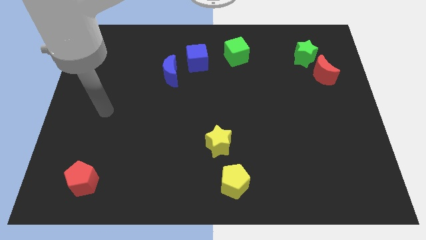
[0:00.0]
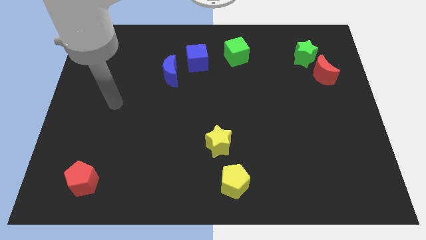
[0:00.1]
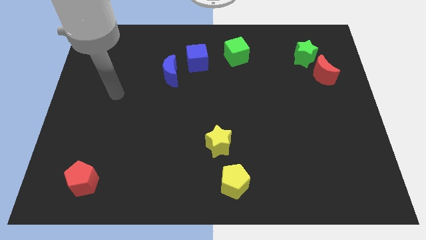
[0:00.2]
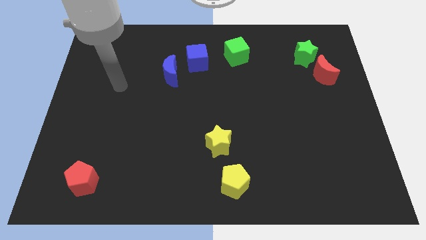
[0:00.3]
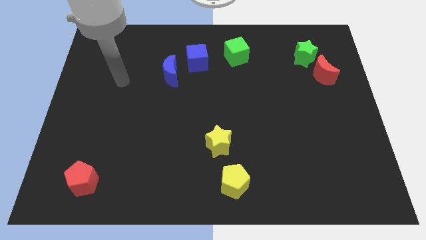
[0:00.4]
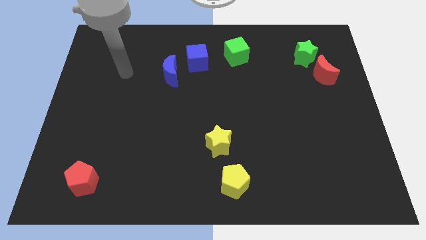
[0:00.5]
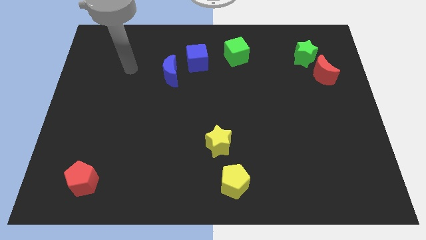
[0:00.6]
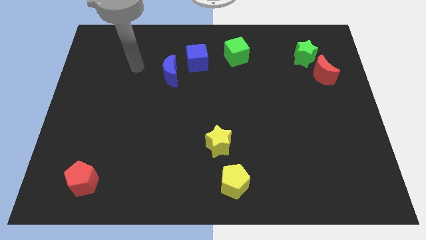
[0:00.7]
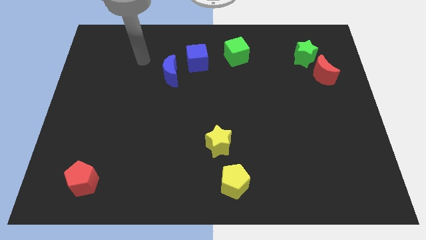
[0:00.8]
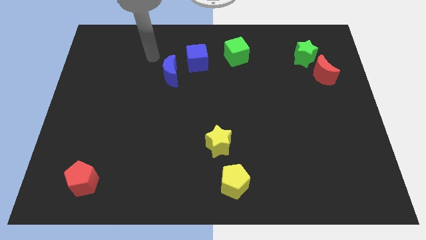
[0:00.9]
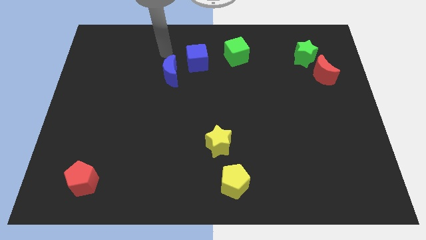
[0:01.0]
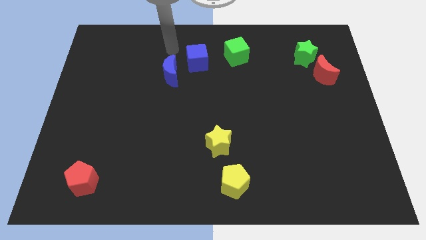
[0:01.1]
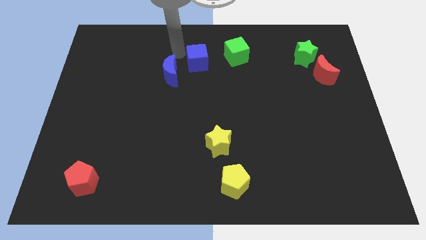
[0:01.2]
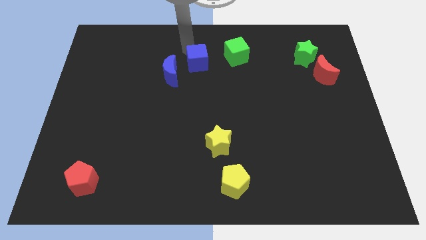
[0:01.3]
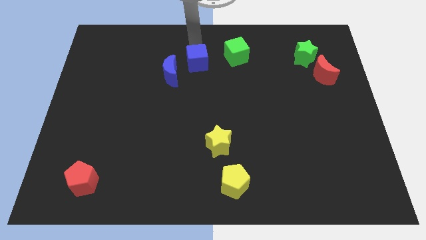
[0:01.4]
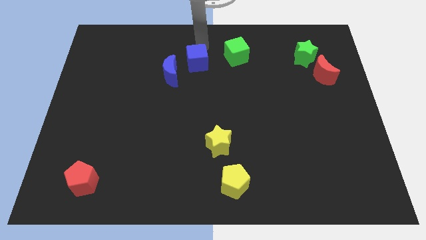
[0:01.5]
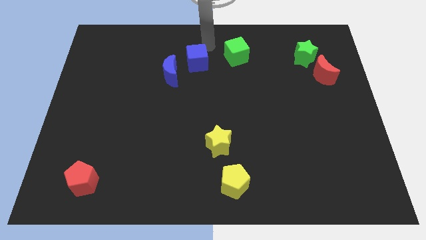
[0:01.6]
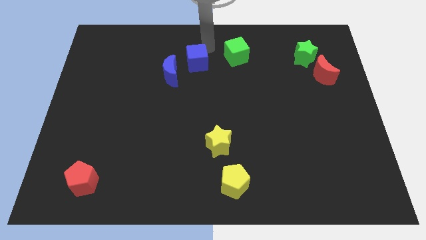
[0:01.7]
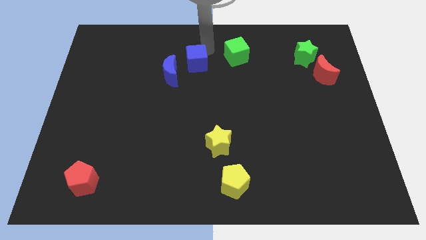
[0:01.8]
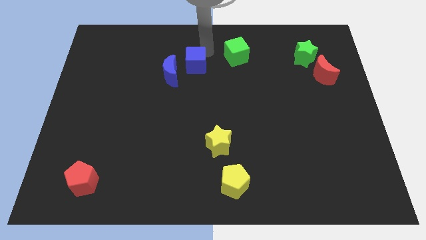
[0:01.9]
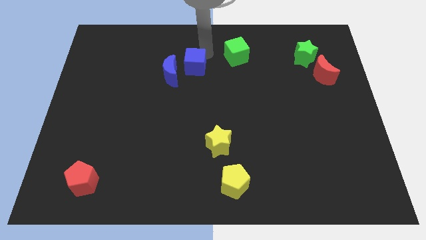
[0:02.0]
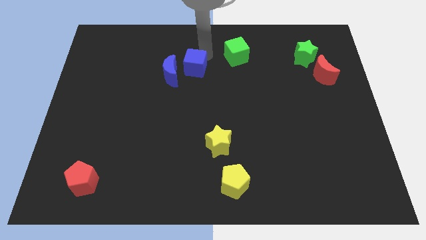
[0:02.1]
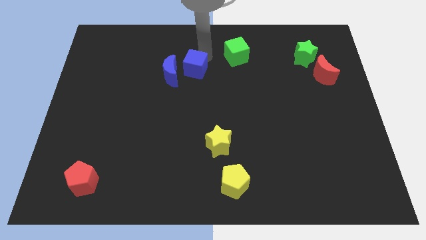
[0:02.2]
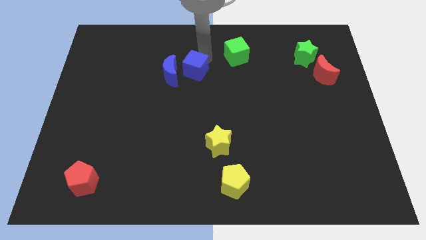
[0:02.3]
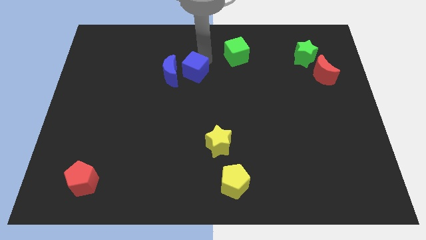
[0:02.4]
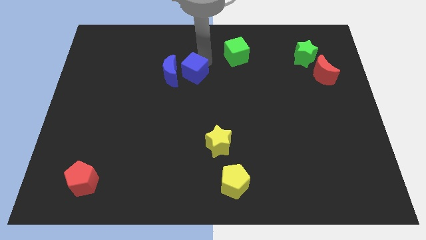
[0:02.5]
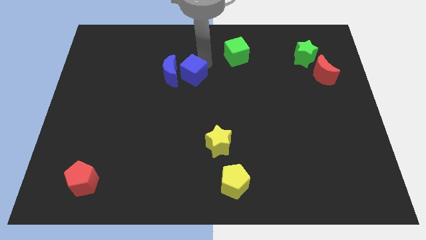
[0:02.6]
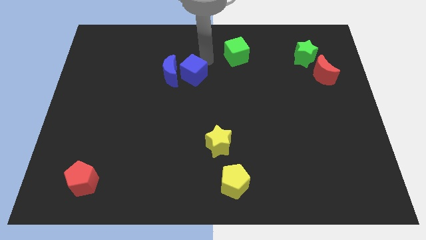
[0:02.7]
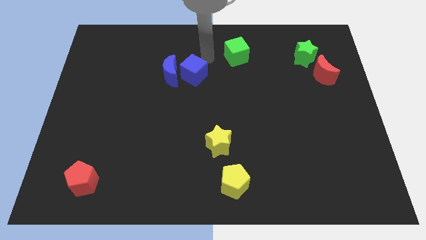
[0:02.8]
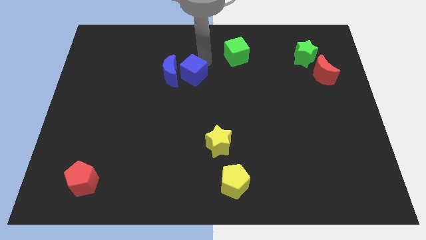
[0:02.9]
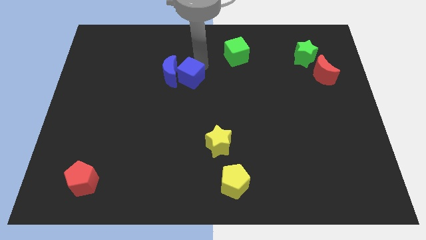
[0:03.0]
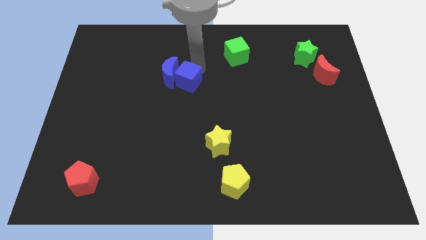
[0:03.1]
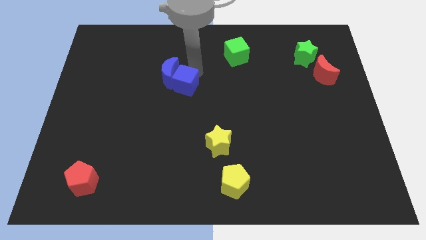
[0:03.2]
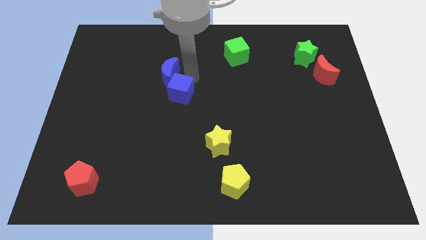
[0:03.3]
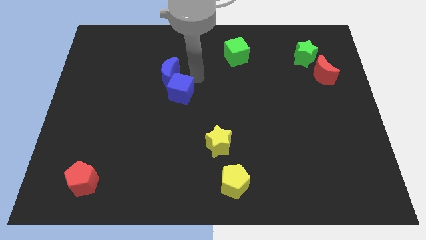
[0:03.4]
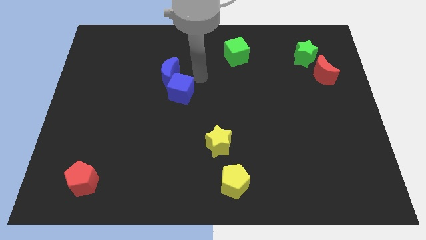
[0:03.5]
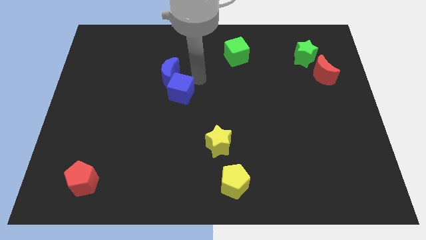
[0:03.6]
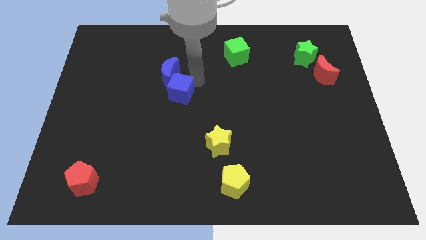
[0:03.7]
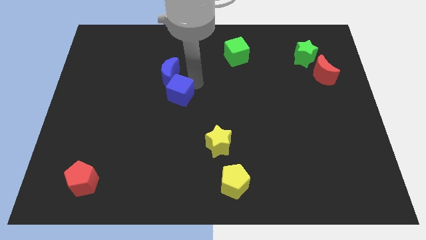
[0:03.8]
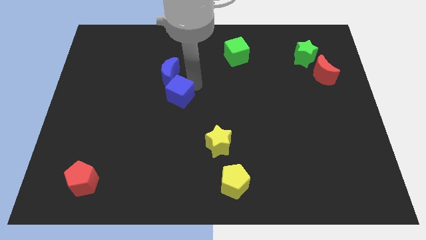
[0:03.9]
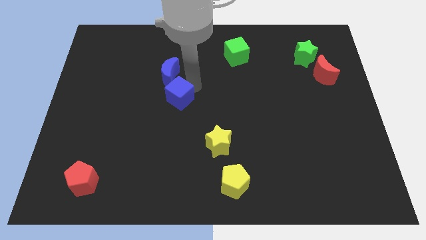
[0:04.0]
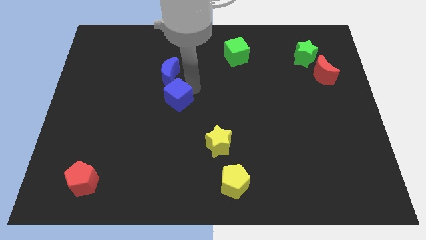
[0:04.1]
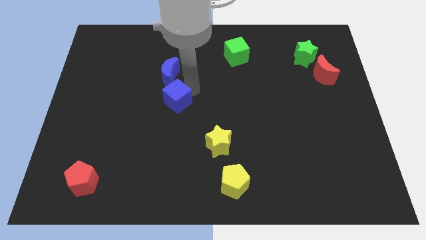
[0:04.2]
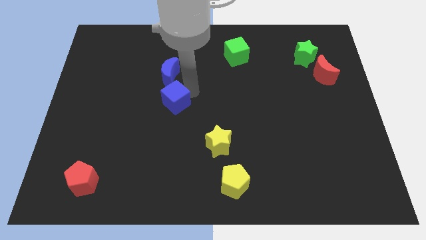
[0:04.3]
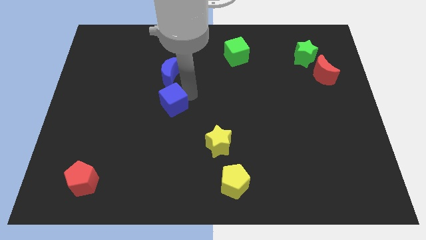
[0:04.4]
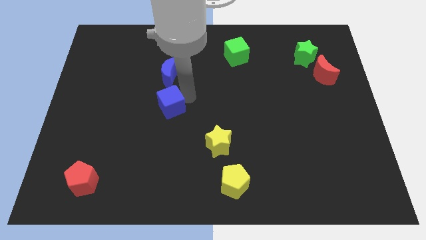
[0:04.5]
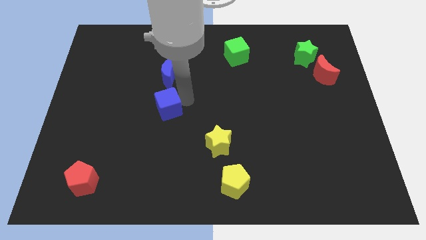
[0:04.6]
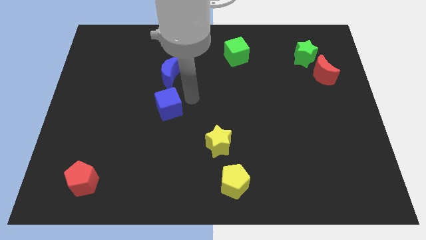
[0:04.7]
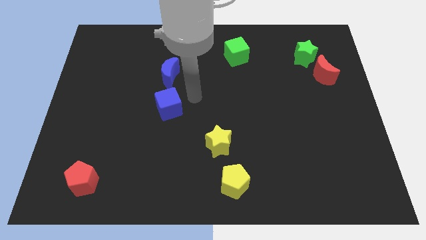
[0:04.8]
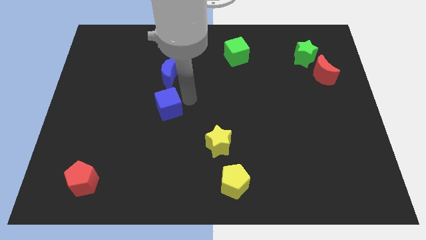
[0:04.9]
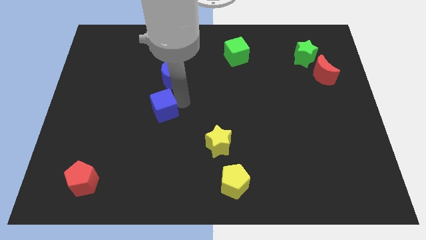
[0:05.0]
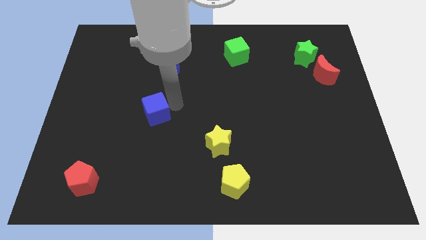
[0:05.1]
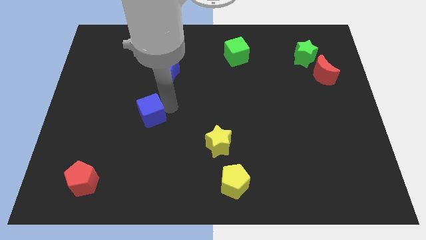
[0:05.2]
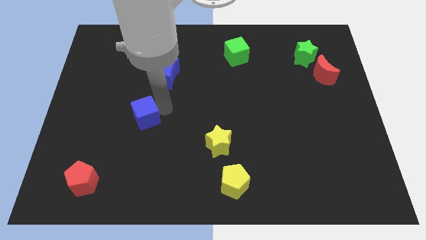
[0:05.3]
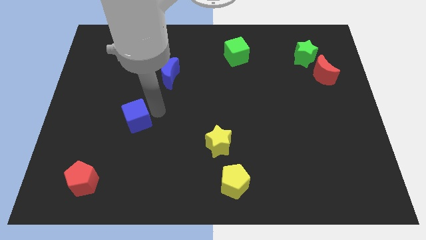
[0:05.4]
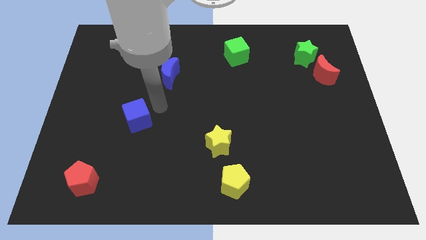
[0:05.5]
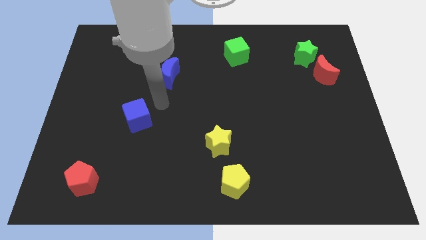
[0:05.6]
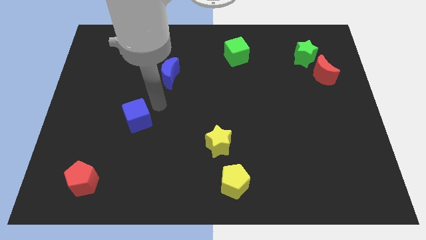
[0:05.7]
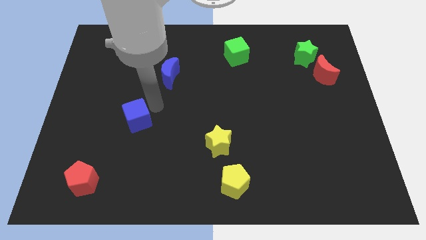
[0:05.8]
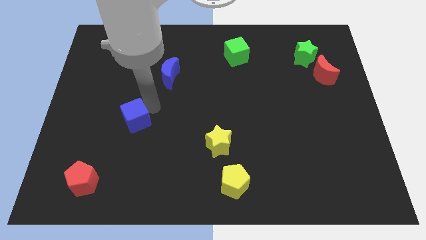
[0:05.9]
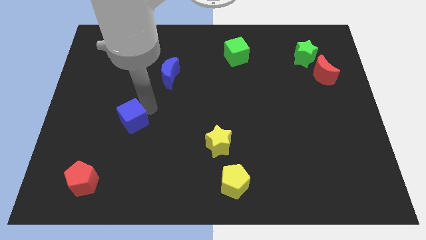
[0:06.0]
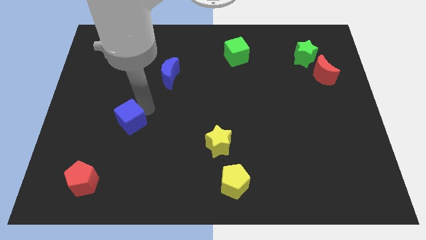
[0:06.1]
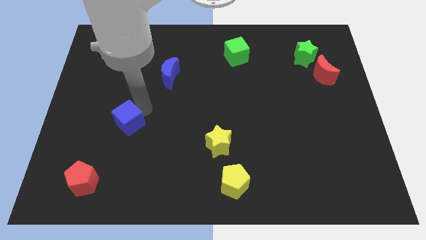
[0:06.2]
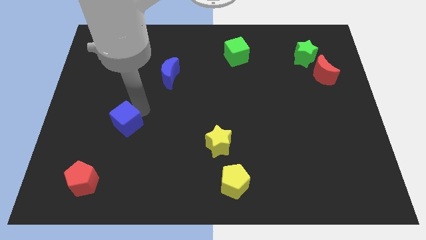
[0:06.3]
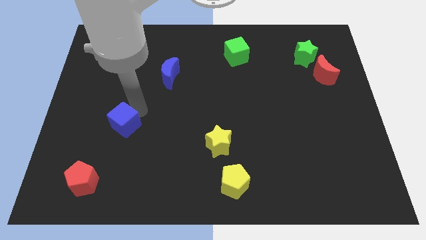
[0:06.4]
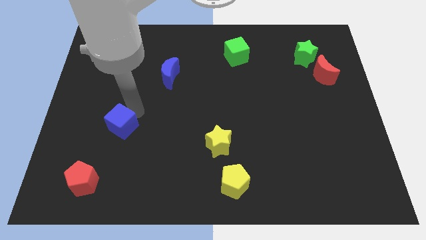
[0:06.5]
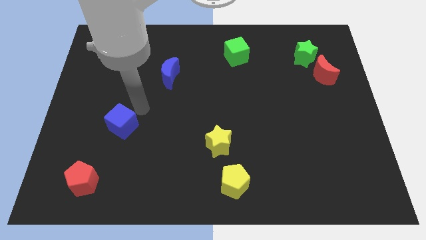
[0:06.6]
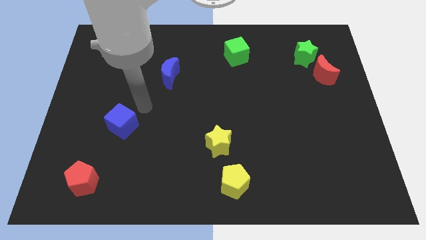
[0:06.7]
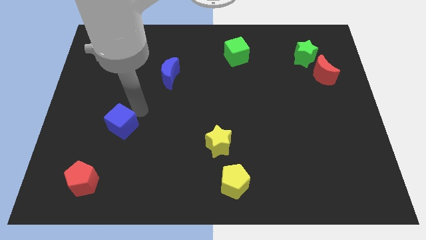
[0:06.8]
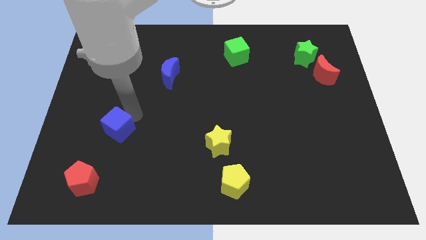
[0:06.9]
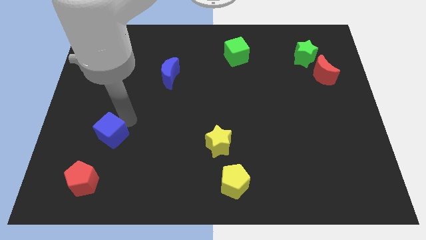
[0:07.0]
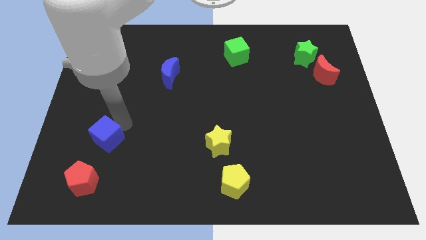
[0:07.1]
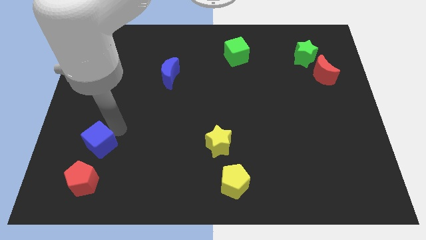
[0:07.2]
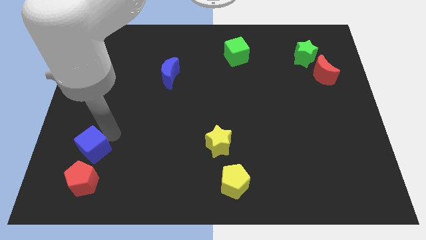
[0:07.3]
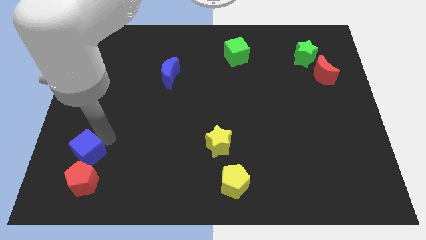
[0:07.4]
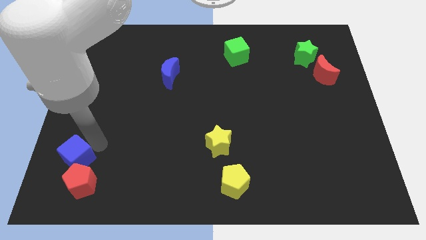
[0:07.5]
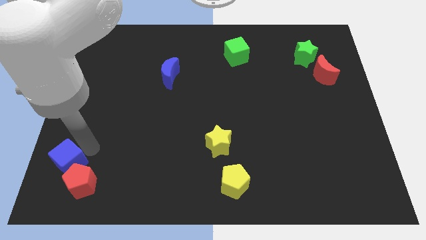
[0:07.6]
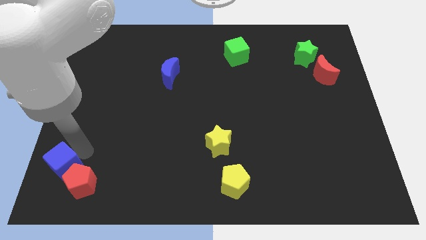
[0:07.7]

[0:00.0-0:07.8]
move the blue cube to the bottom left corner
